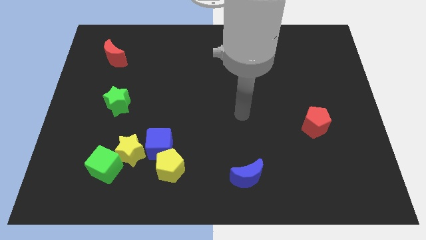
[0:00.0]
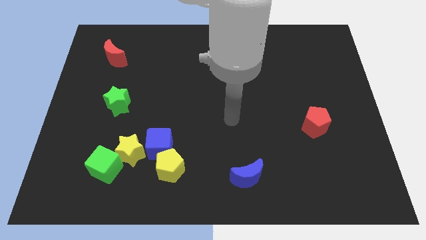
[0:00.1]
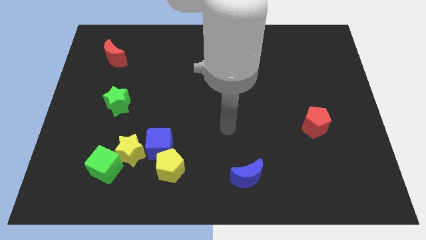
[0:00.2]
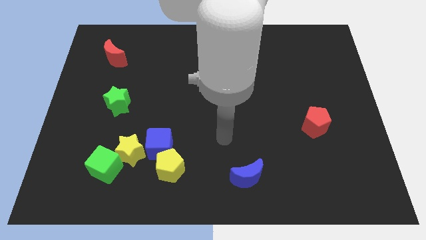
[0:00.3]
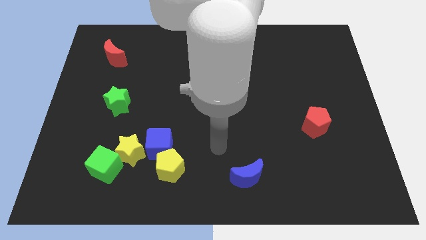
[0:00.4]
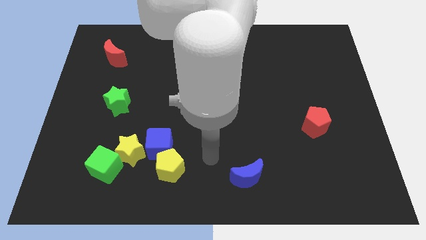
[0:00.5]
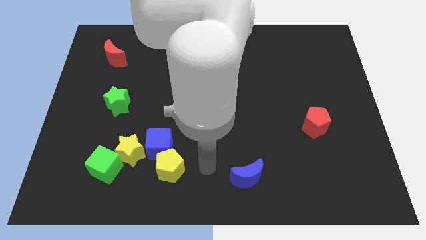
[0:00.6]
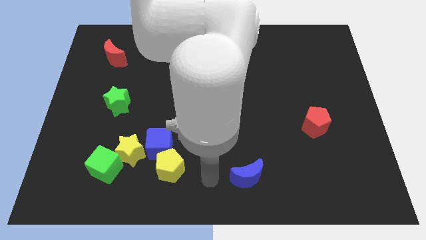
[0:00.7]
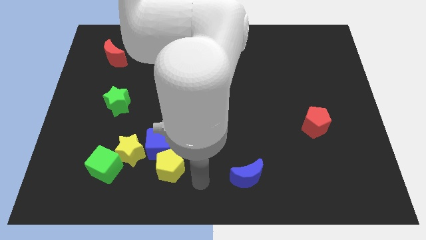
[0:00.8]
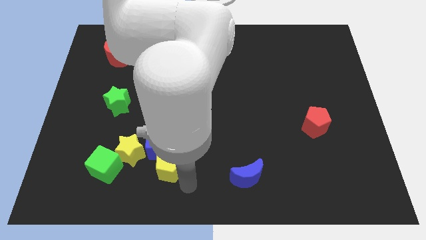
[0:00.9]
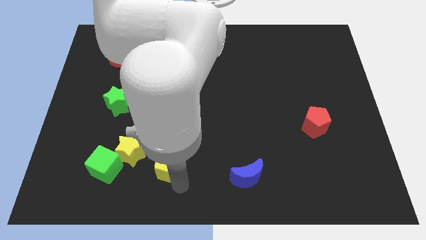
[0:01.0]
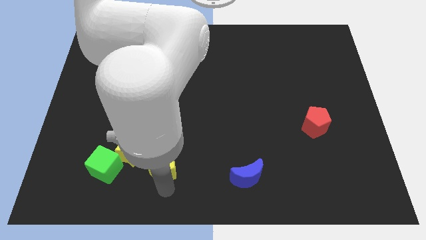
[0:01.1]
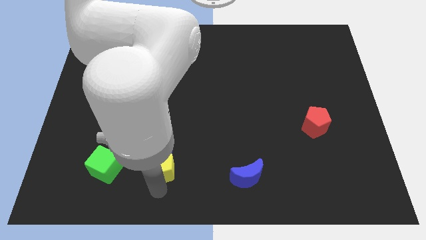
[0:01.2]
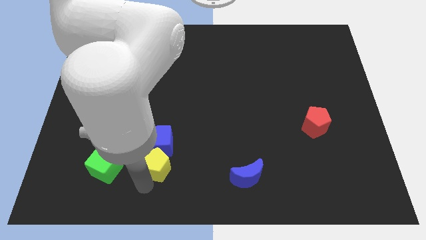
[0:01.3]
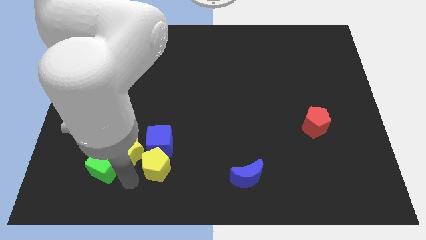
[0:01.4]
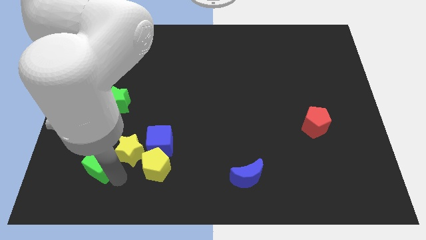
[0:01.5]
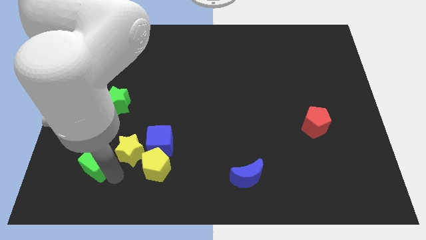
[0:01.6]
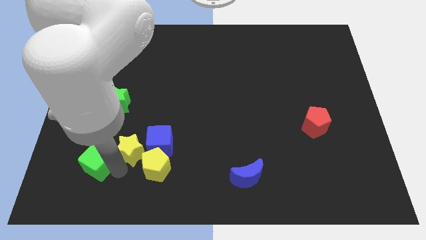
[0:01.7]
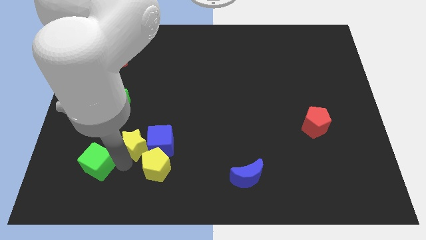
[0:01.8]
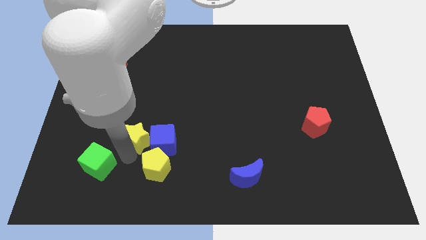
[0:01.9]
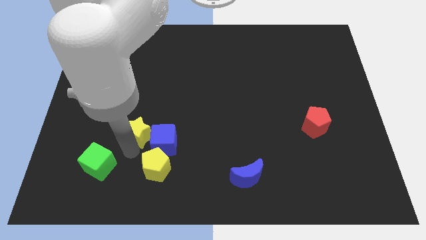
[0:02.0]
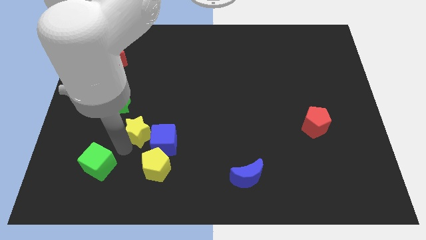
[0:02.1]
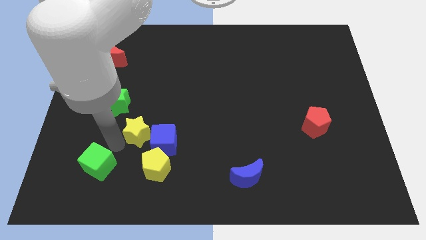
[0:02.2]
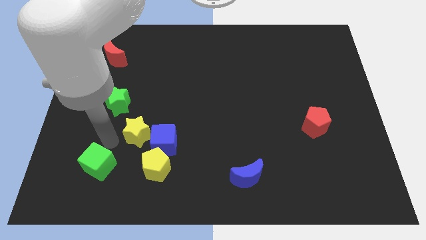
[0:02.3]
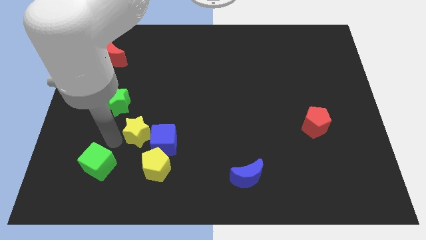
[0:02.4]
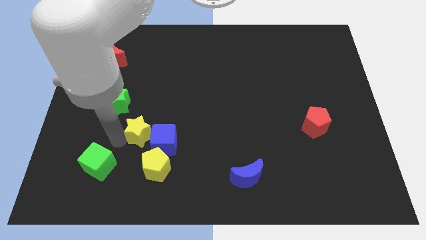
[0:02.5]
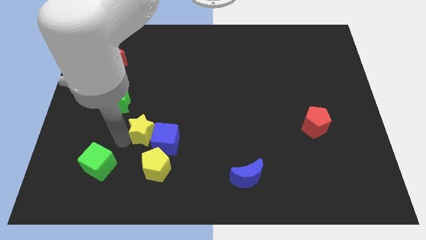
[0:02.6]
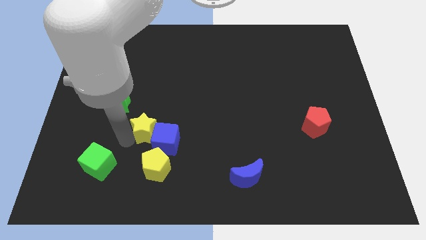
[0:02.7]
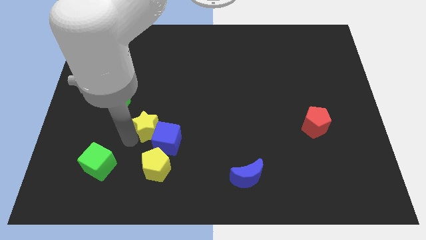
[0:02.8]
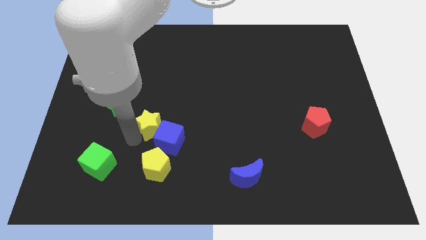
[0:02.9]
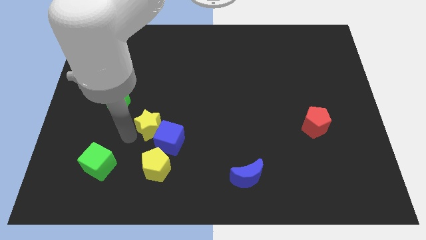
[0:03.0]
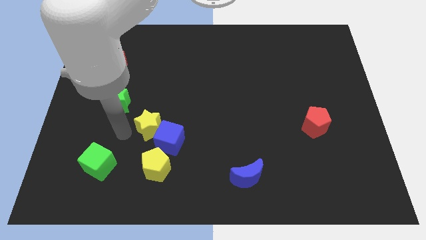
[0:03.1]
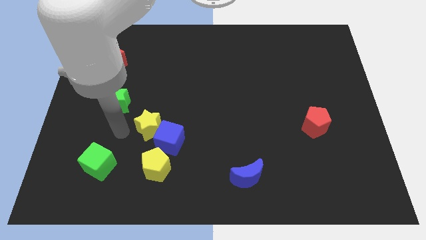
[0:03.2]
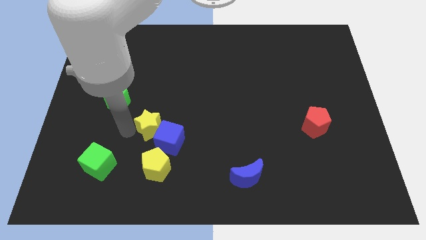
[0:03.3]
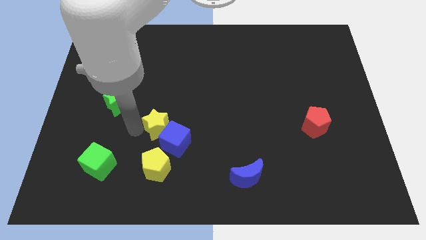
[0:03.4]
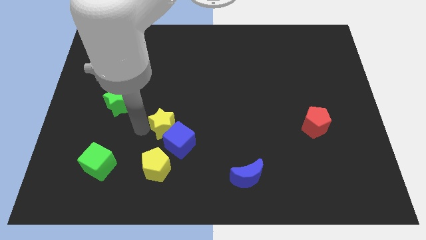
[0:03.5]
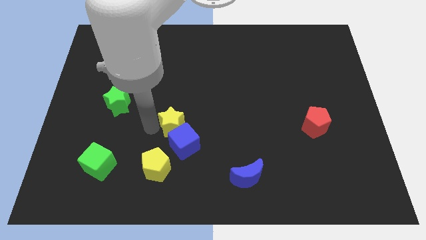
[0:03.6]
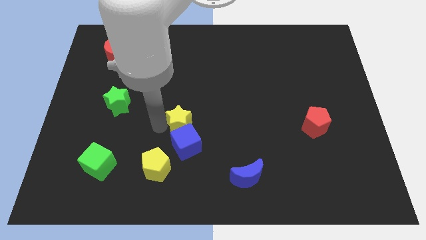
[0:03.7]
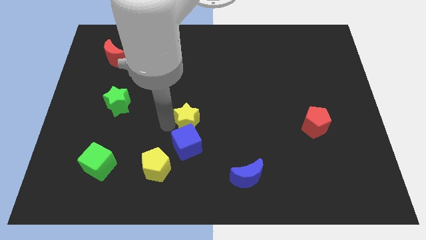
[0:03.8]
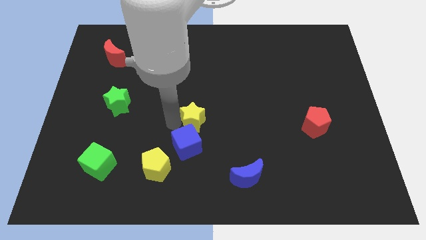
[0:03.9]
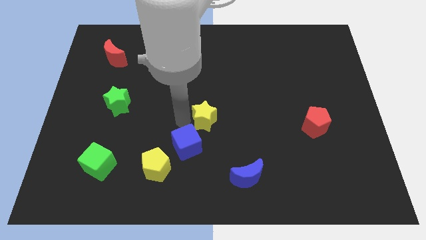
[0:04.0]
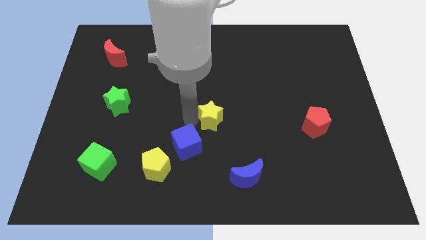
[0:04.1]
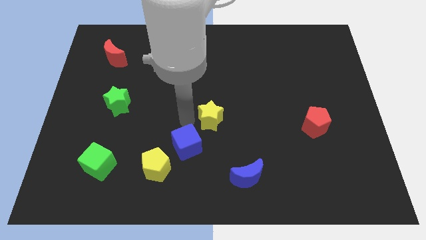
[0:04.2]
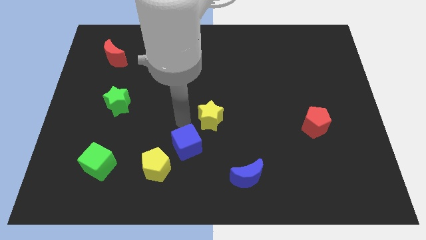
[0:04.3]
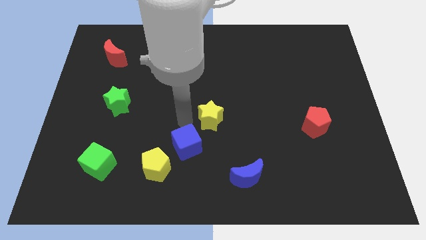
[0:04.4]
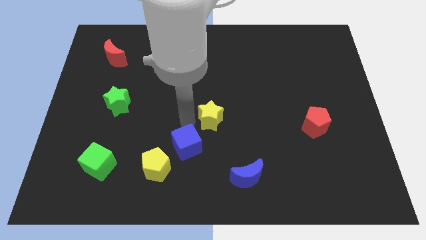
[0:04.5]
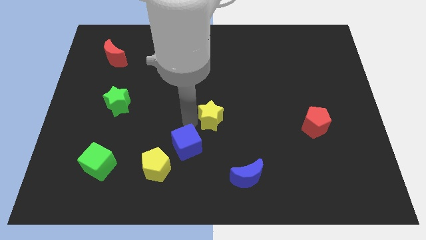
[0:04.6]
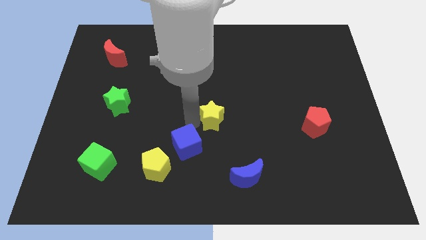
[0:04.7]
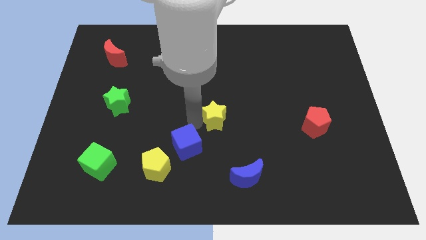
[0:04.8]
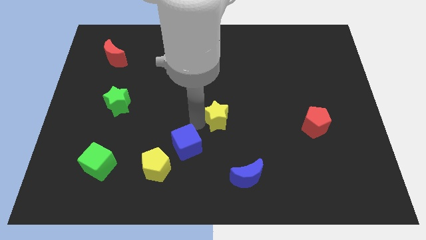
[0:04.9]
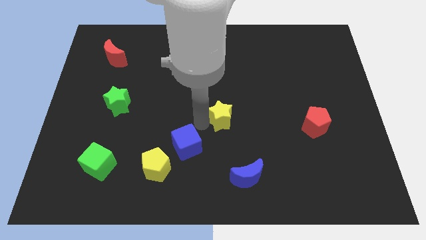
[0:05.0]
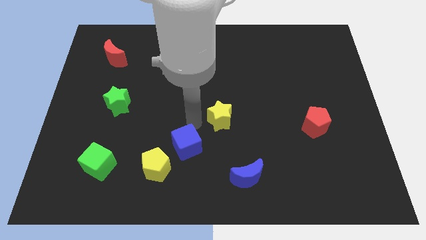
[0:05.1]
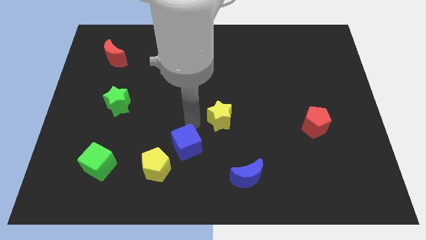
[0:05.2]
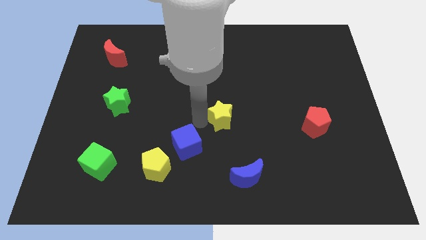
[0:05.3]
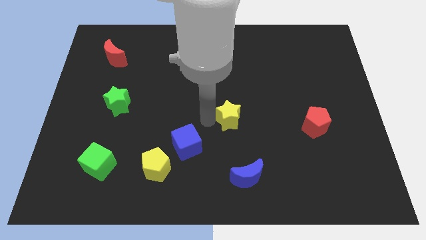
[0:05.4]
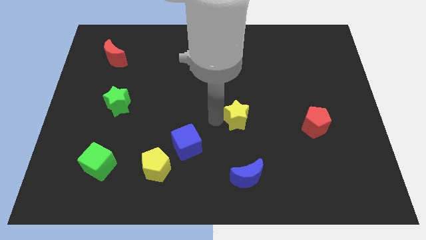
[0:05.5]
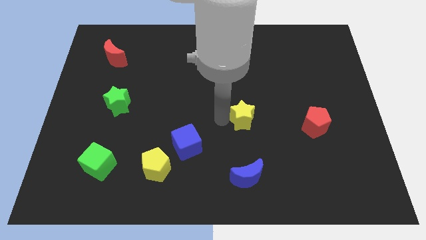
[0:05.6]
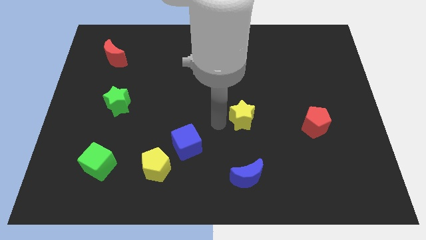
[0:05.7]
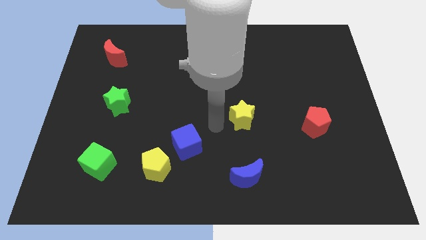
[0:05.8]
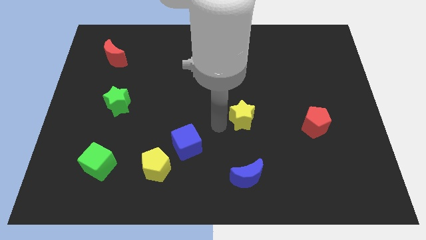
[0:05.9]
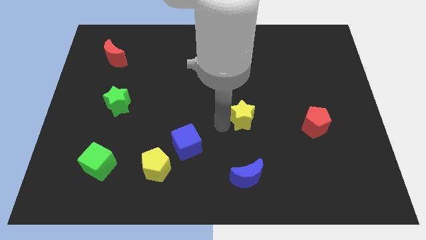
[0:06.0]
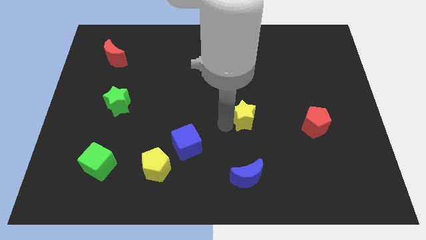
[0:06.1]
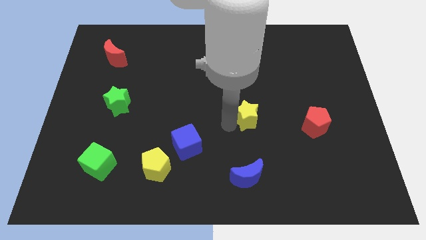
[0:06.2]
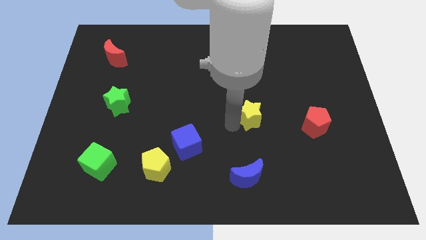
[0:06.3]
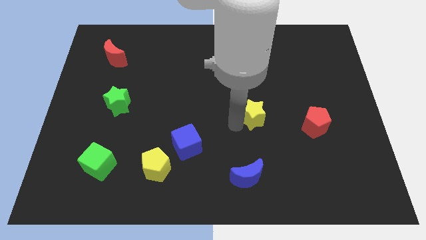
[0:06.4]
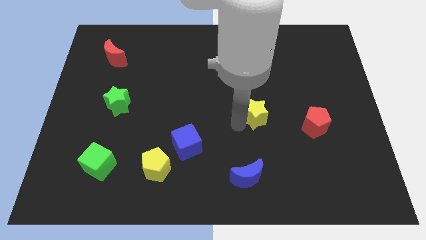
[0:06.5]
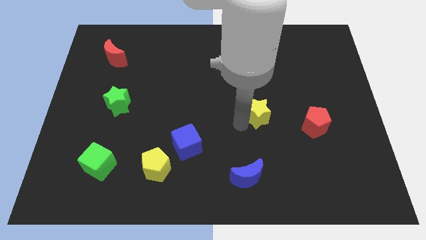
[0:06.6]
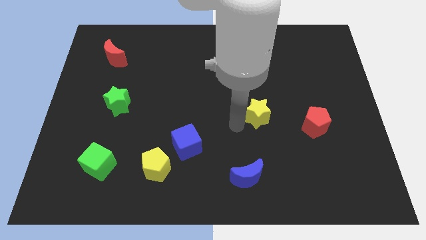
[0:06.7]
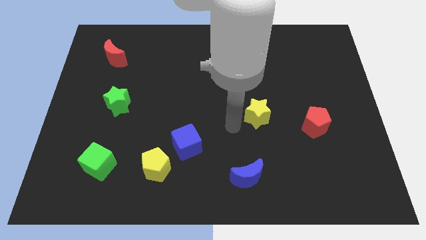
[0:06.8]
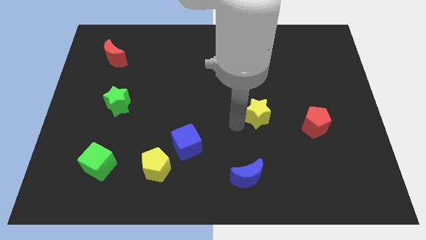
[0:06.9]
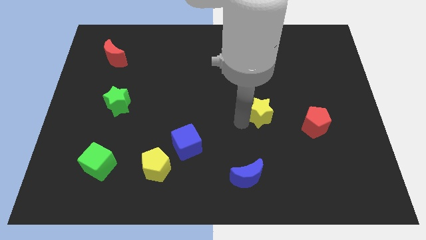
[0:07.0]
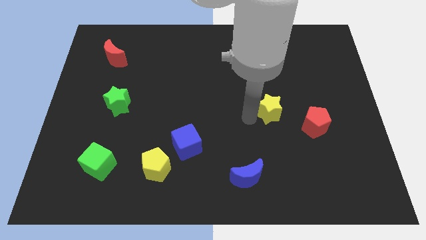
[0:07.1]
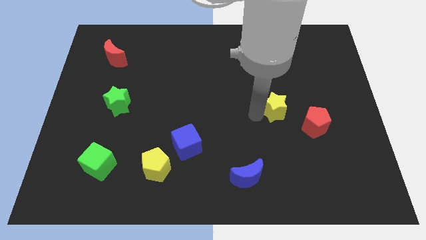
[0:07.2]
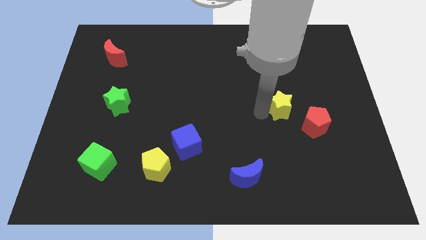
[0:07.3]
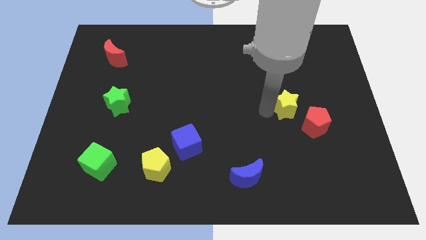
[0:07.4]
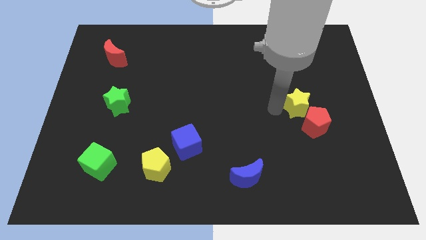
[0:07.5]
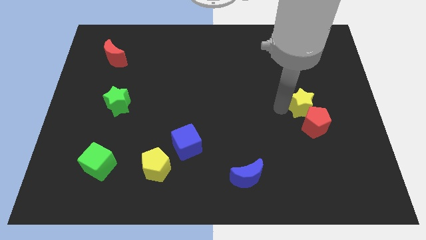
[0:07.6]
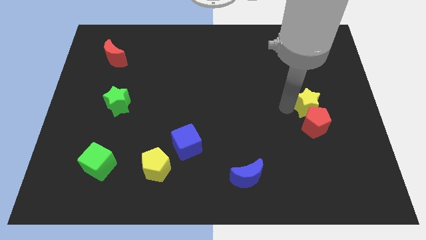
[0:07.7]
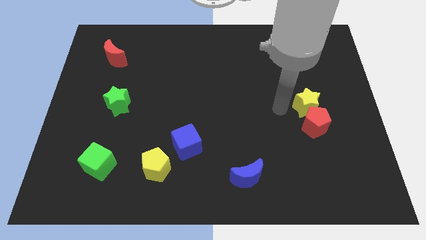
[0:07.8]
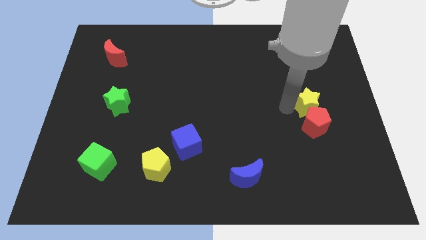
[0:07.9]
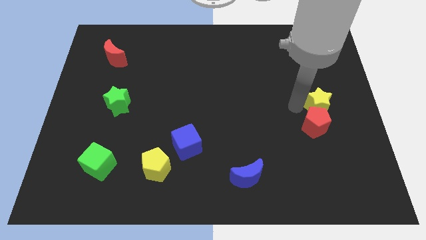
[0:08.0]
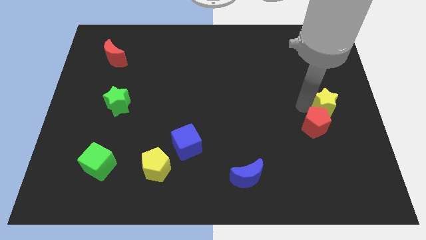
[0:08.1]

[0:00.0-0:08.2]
push the yellow star to the right side
